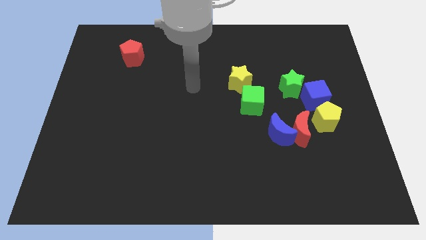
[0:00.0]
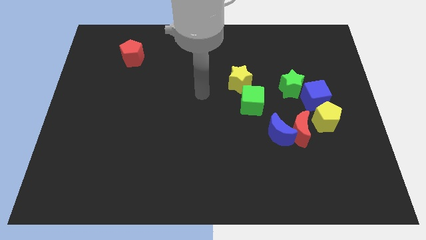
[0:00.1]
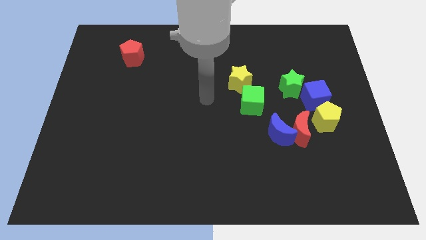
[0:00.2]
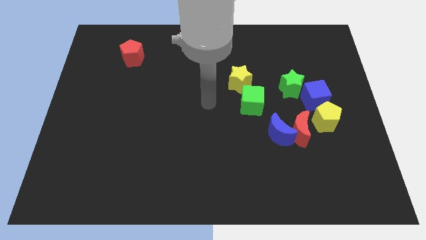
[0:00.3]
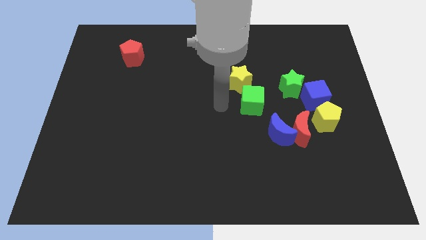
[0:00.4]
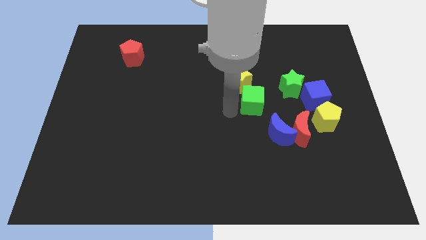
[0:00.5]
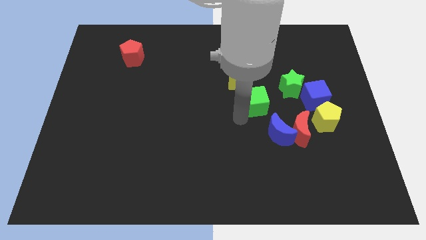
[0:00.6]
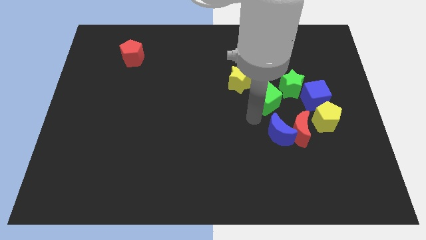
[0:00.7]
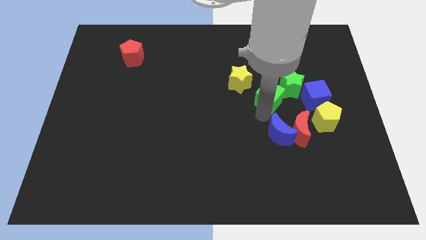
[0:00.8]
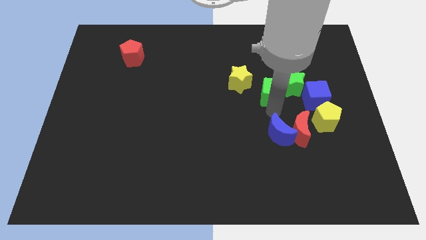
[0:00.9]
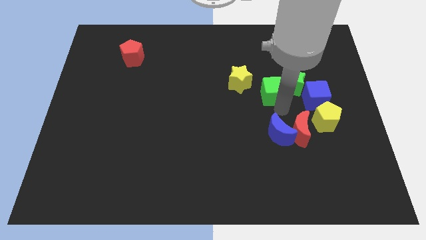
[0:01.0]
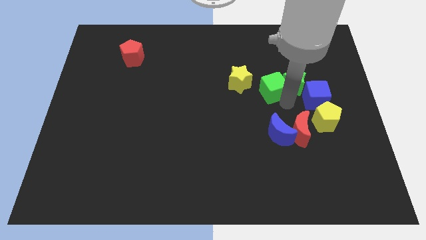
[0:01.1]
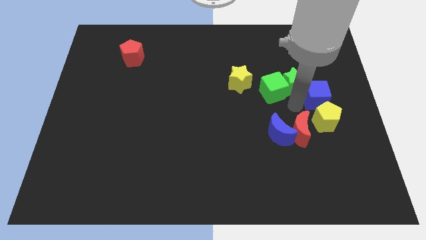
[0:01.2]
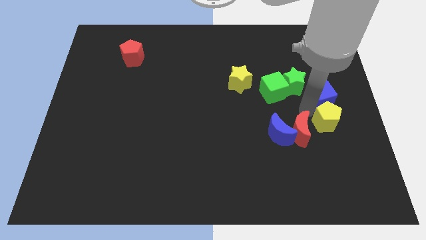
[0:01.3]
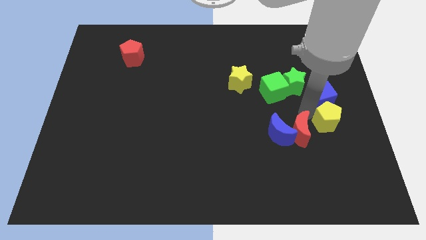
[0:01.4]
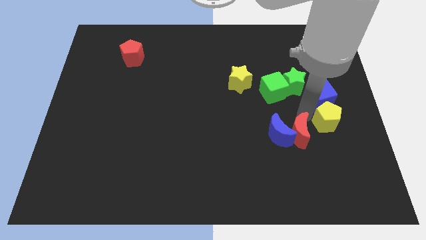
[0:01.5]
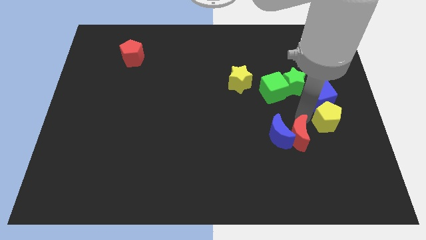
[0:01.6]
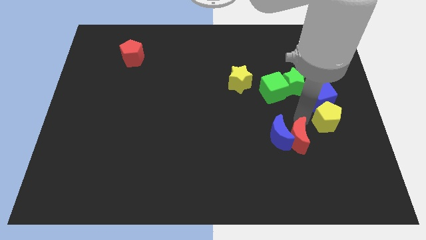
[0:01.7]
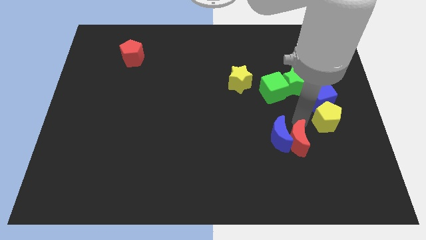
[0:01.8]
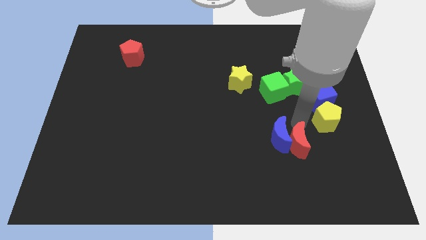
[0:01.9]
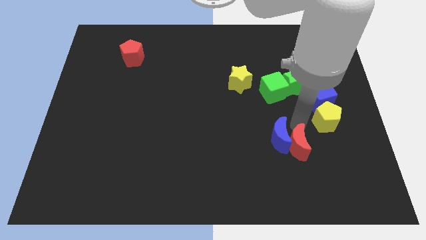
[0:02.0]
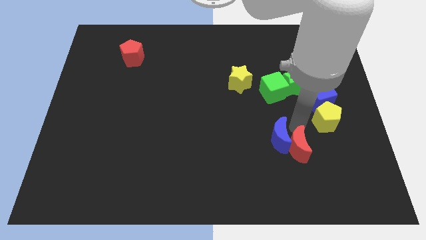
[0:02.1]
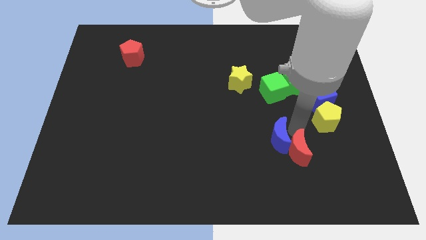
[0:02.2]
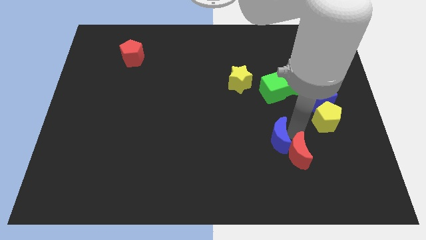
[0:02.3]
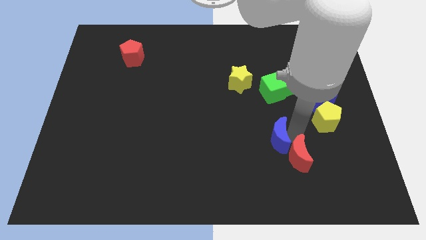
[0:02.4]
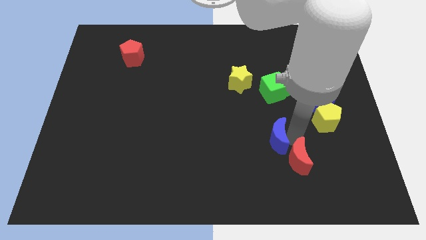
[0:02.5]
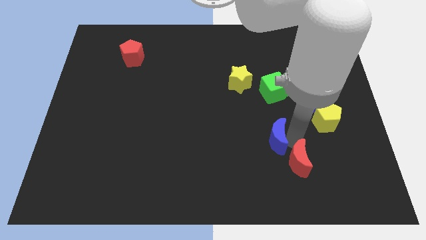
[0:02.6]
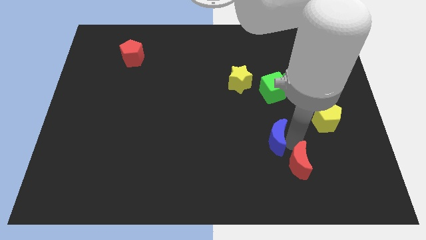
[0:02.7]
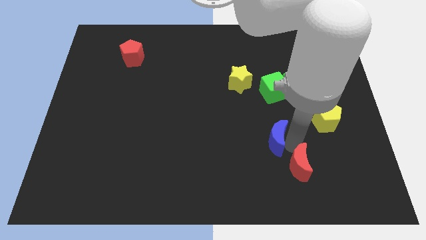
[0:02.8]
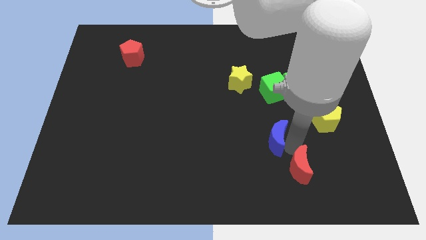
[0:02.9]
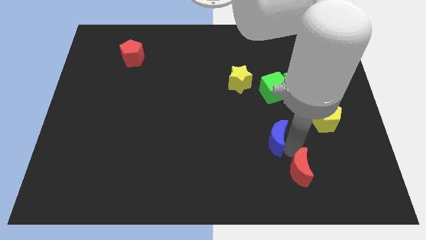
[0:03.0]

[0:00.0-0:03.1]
pull the red moon apart from the blue moon and yellow pentagon

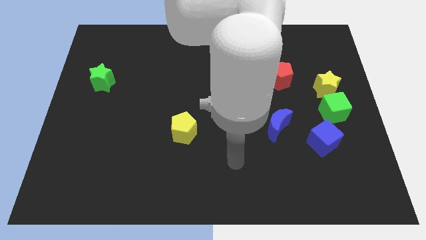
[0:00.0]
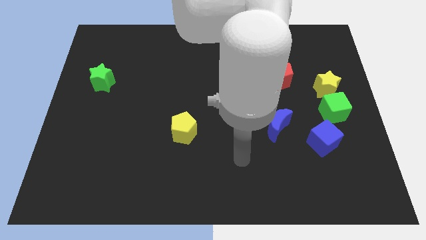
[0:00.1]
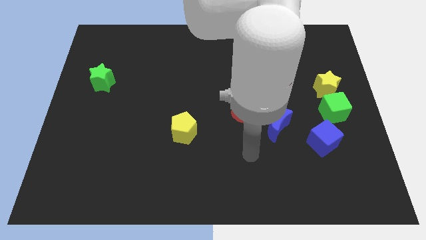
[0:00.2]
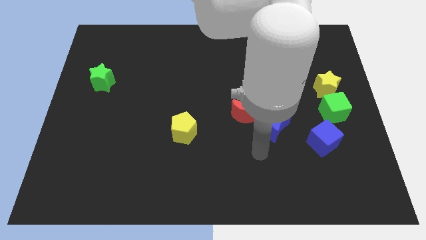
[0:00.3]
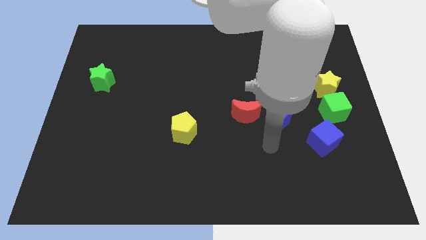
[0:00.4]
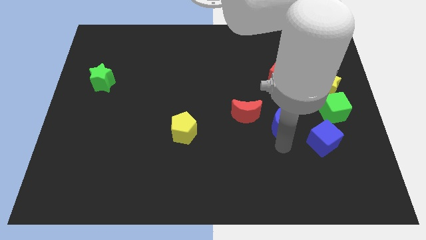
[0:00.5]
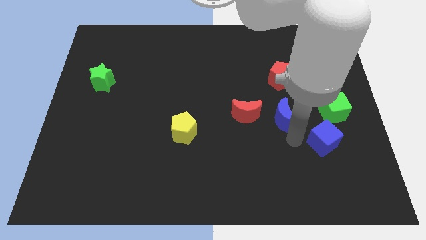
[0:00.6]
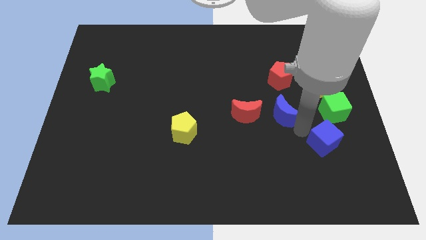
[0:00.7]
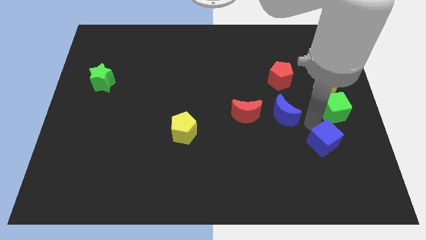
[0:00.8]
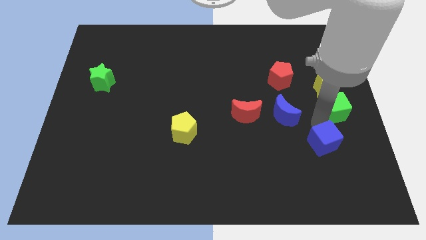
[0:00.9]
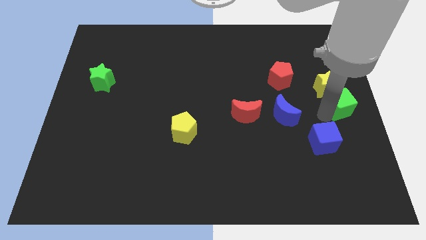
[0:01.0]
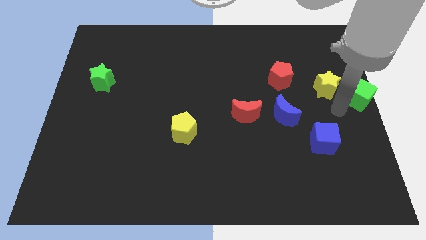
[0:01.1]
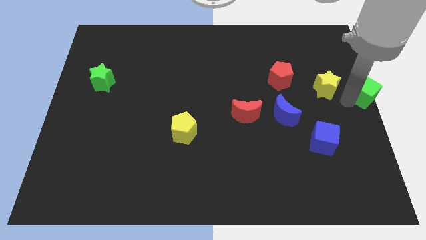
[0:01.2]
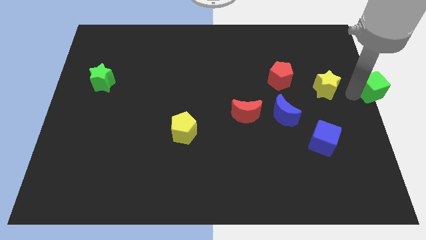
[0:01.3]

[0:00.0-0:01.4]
move the yellow star away from the green cube

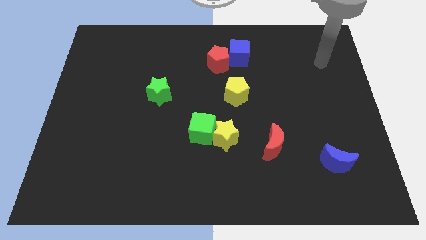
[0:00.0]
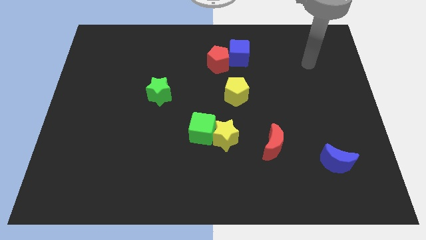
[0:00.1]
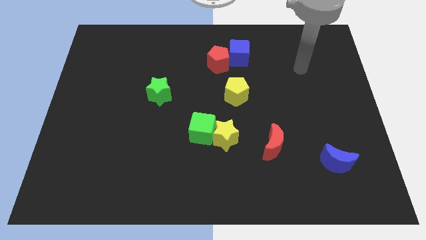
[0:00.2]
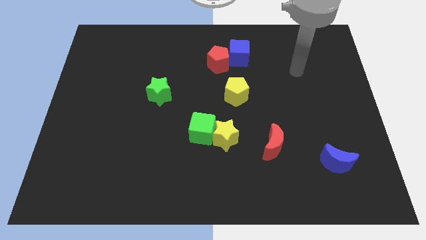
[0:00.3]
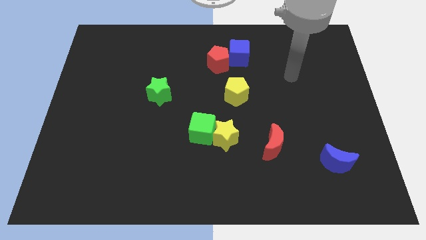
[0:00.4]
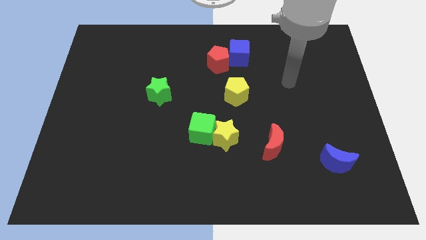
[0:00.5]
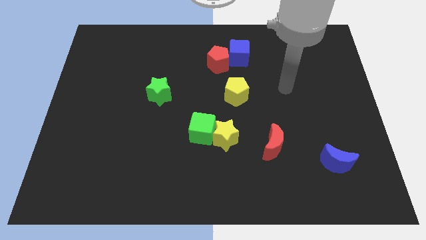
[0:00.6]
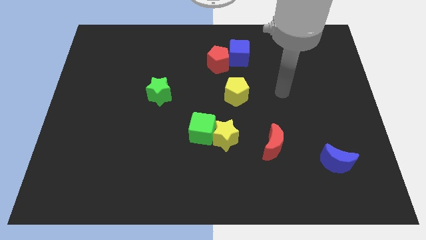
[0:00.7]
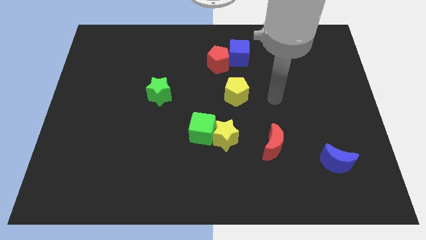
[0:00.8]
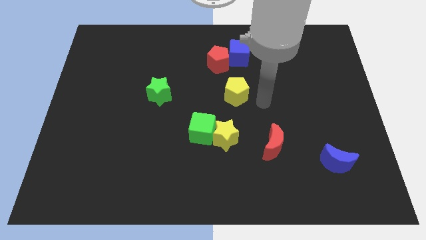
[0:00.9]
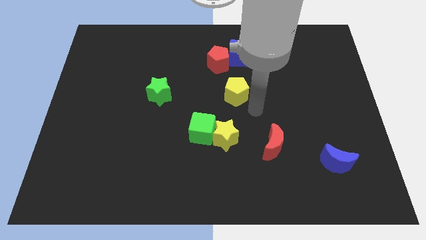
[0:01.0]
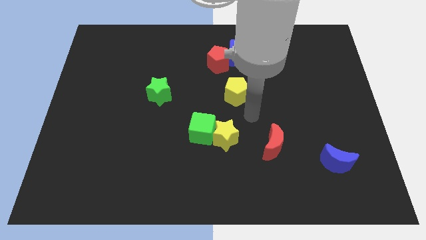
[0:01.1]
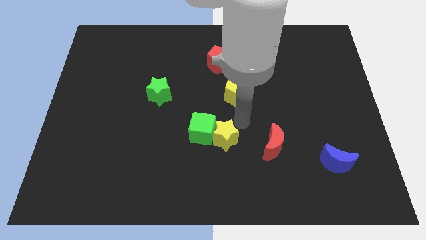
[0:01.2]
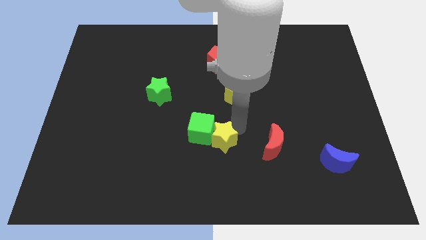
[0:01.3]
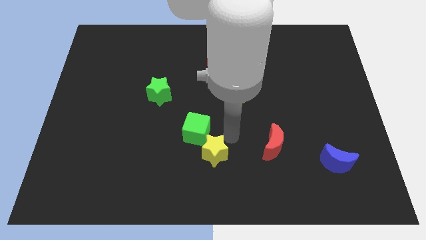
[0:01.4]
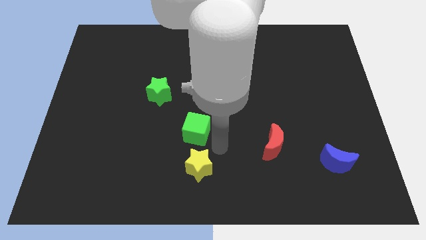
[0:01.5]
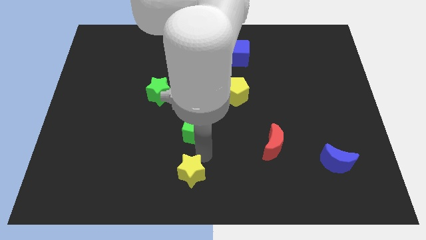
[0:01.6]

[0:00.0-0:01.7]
pull the green cube apart from the yellow star

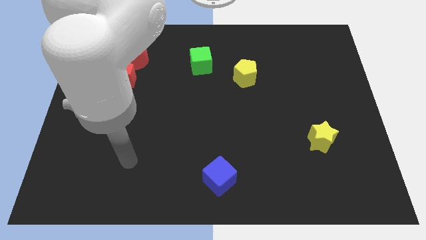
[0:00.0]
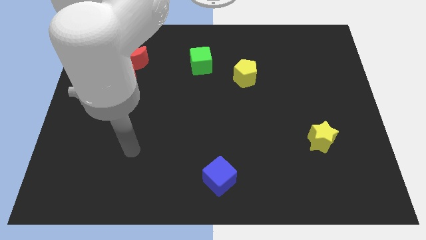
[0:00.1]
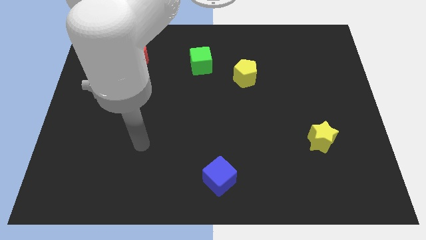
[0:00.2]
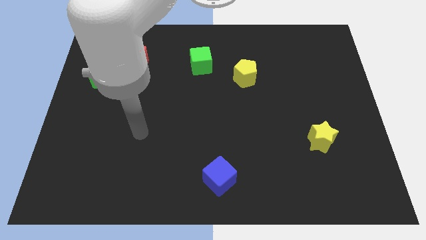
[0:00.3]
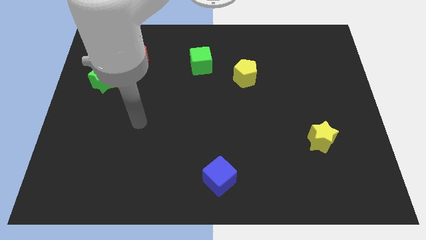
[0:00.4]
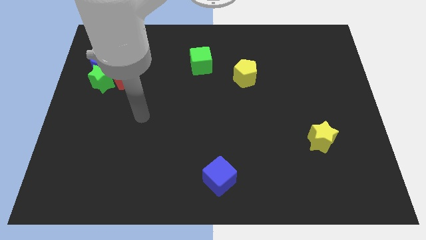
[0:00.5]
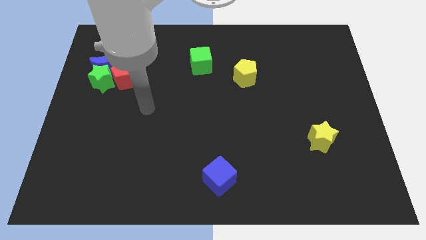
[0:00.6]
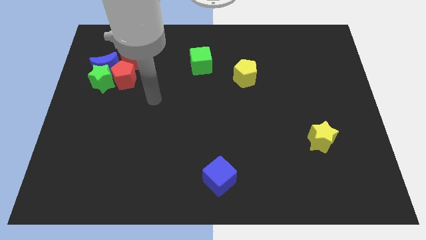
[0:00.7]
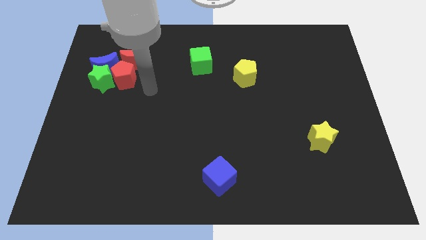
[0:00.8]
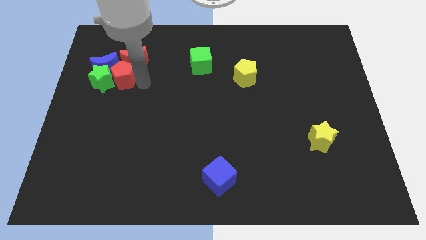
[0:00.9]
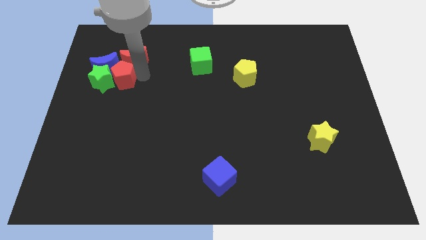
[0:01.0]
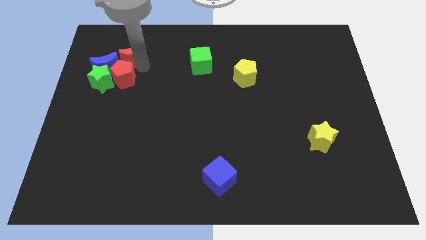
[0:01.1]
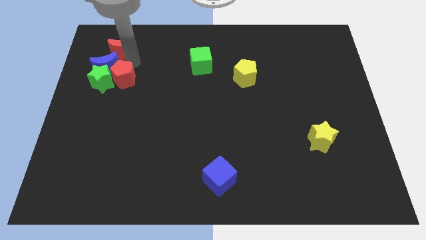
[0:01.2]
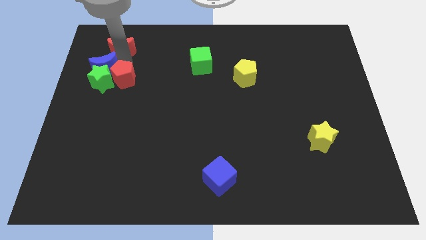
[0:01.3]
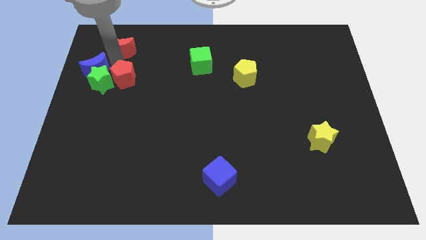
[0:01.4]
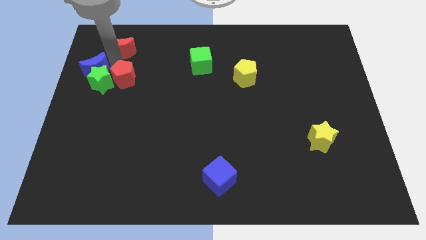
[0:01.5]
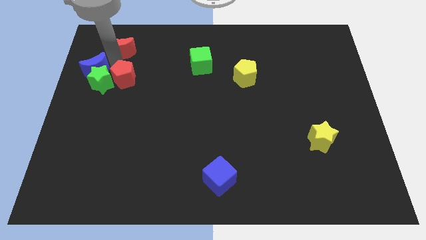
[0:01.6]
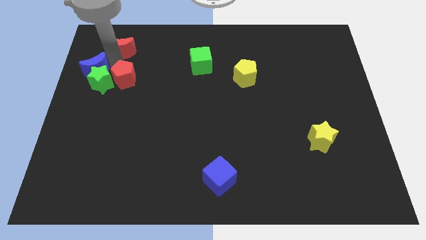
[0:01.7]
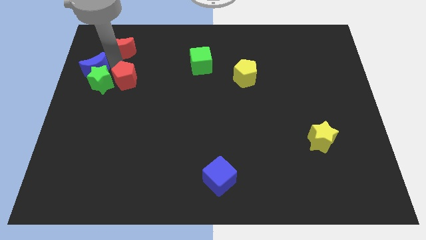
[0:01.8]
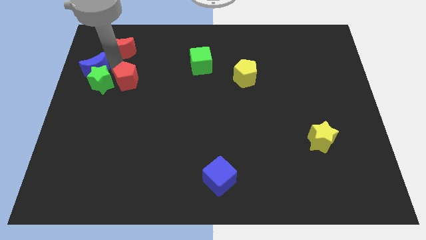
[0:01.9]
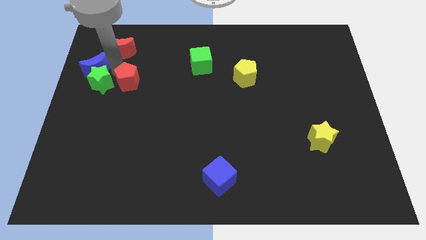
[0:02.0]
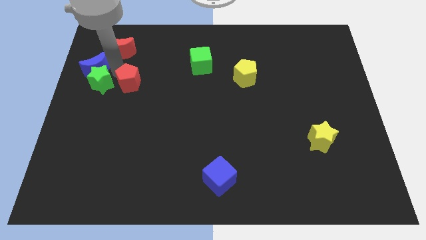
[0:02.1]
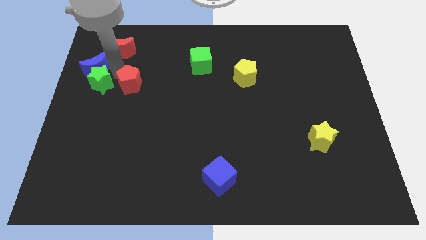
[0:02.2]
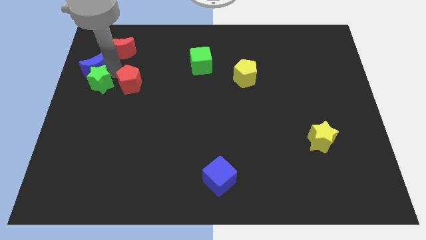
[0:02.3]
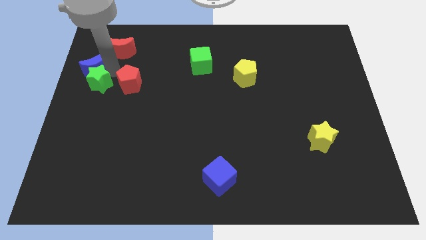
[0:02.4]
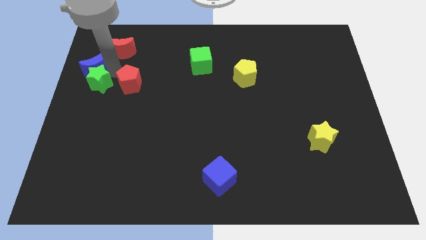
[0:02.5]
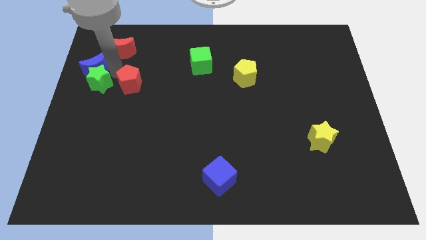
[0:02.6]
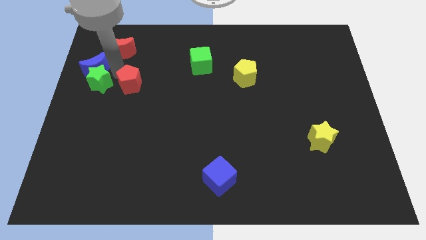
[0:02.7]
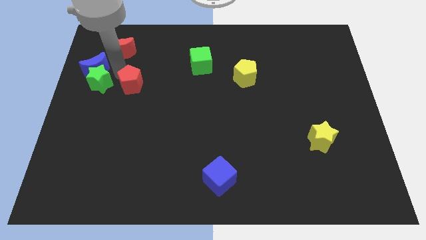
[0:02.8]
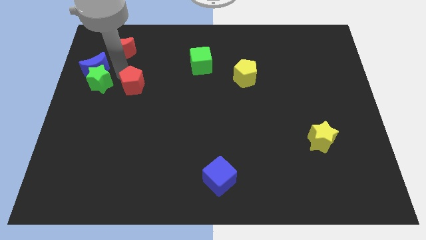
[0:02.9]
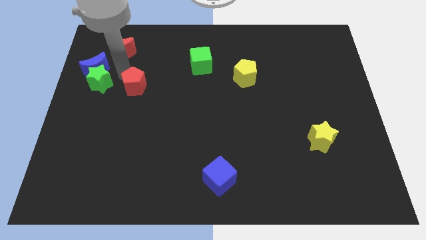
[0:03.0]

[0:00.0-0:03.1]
separate the red pentagon from the group

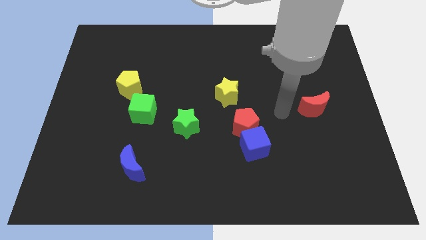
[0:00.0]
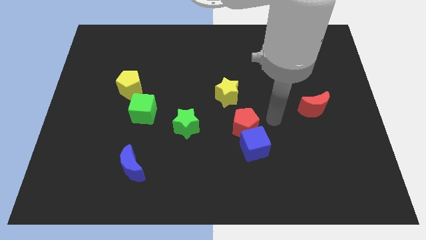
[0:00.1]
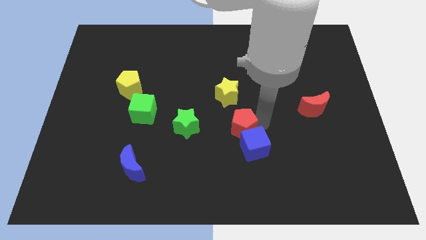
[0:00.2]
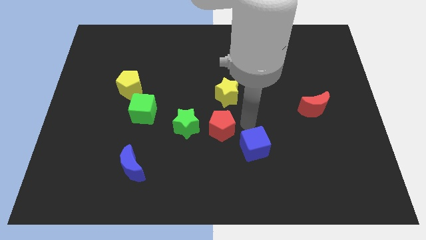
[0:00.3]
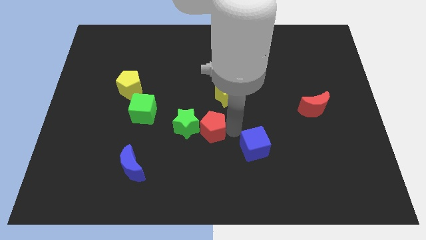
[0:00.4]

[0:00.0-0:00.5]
pull the blue cube apart from the red pentagon
